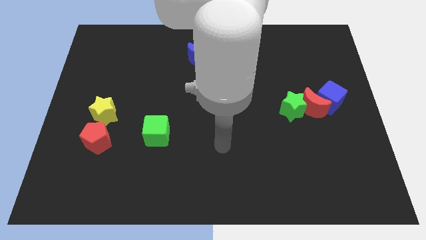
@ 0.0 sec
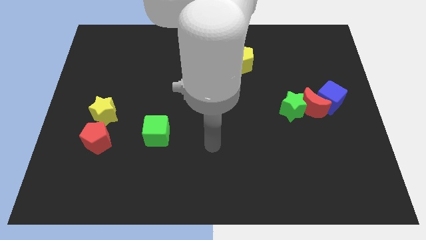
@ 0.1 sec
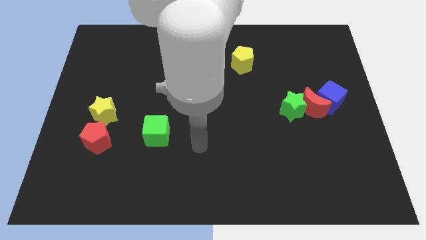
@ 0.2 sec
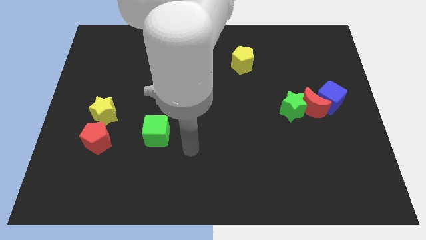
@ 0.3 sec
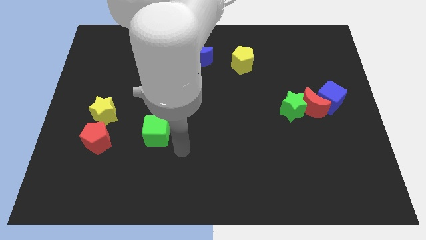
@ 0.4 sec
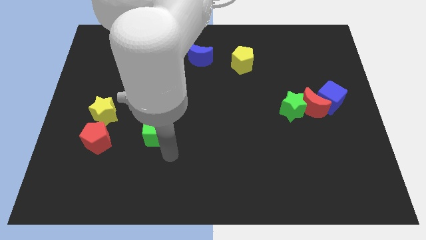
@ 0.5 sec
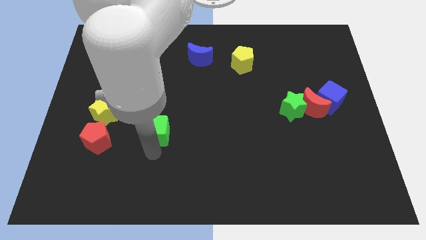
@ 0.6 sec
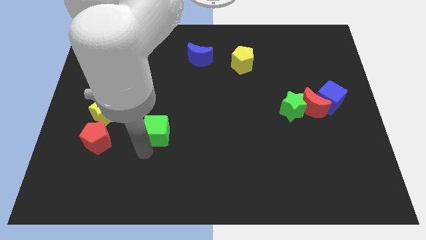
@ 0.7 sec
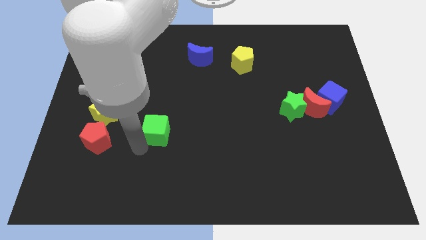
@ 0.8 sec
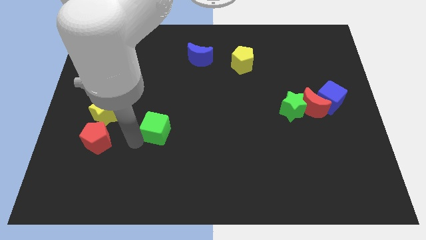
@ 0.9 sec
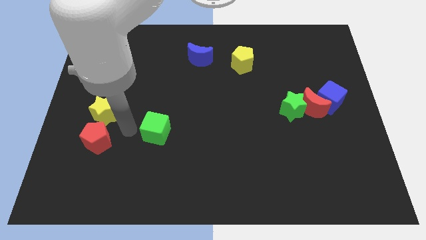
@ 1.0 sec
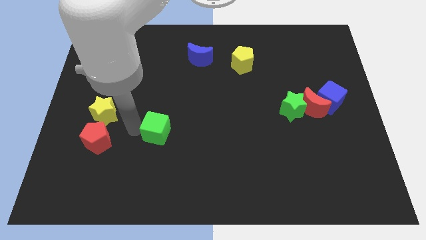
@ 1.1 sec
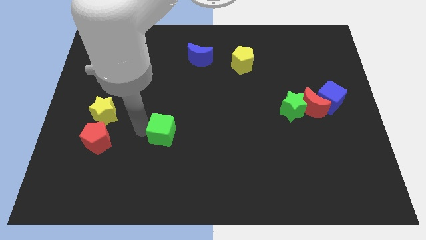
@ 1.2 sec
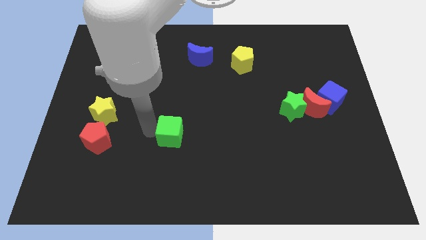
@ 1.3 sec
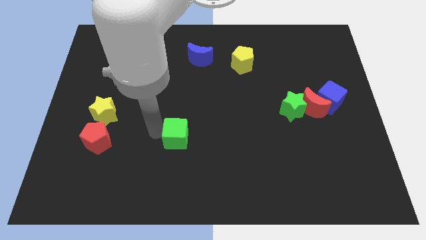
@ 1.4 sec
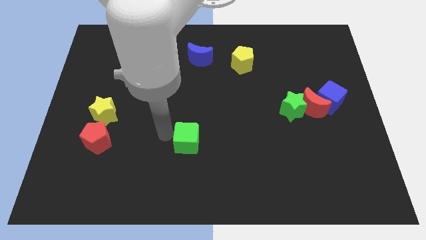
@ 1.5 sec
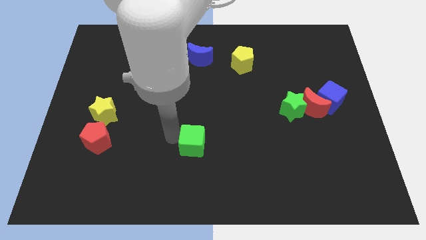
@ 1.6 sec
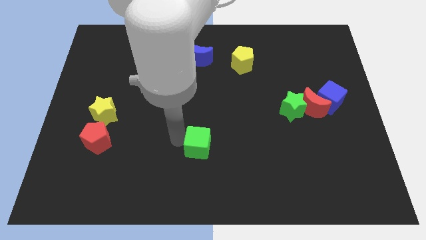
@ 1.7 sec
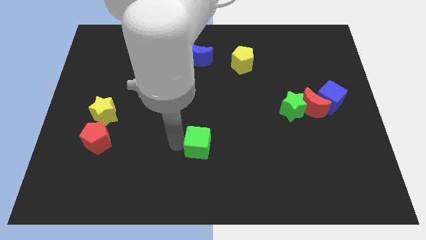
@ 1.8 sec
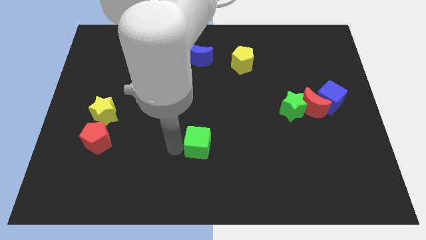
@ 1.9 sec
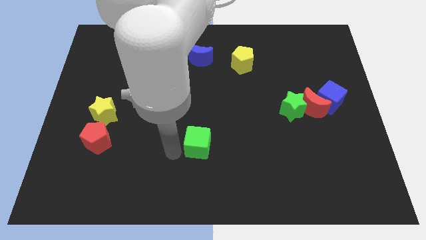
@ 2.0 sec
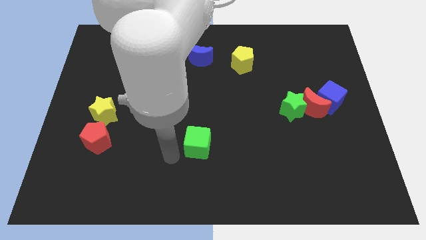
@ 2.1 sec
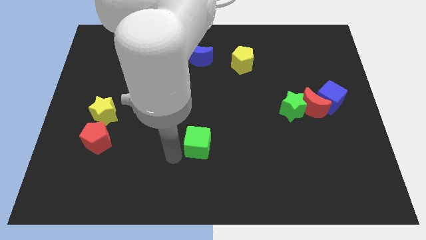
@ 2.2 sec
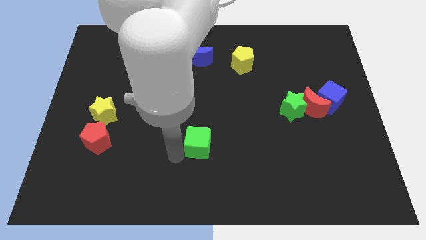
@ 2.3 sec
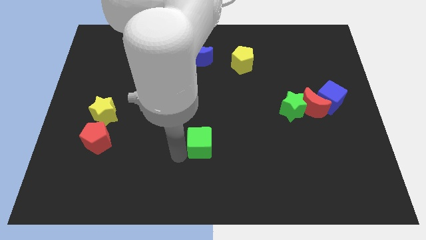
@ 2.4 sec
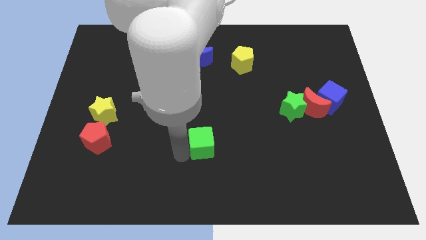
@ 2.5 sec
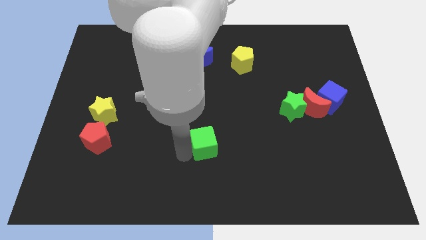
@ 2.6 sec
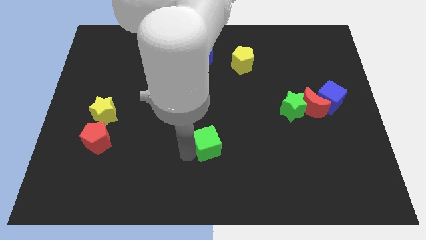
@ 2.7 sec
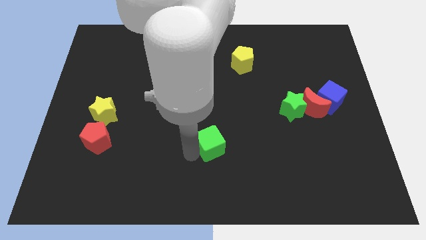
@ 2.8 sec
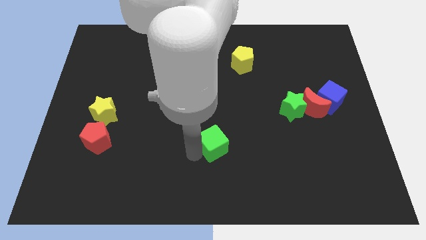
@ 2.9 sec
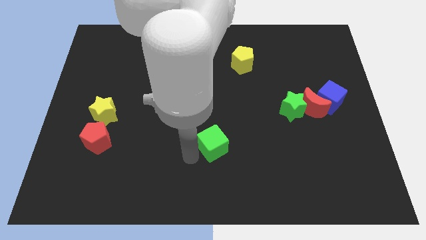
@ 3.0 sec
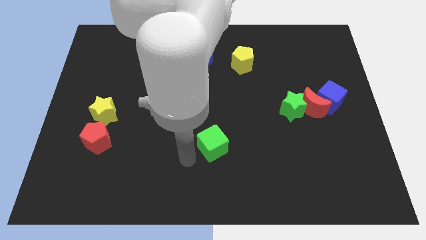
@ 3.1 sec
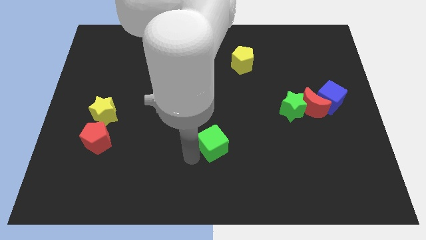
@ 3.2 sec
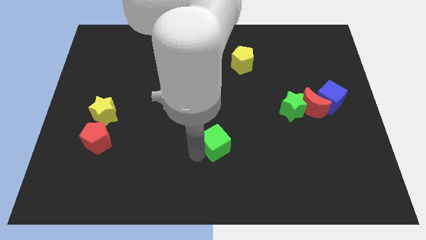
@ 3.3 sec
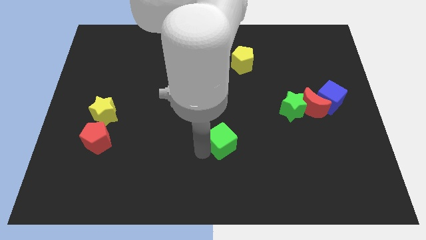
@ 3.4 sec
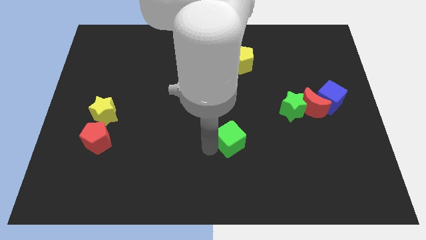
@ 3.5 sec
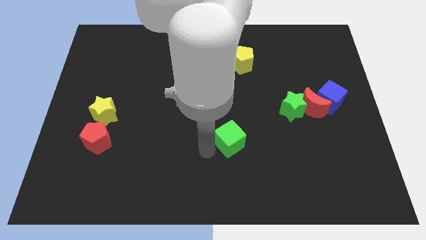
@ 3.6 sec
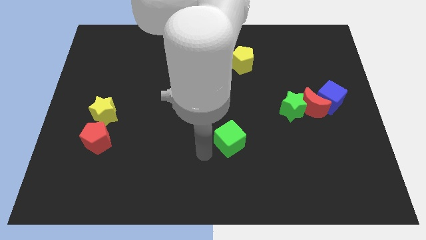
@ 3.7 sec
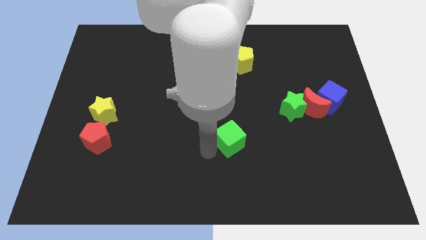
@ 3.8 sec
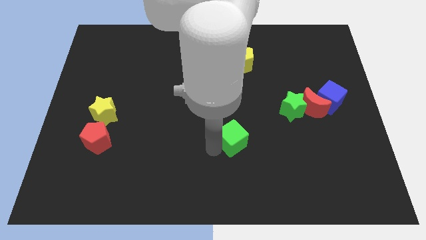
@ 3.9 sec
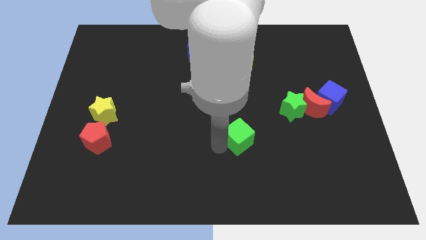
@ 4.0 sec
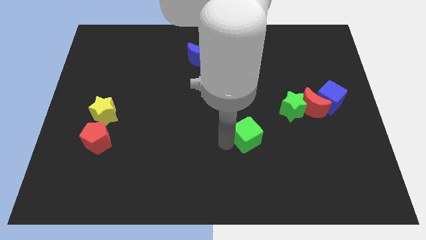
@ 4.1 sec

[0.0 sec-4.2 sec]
move the green cube to the right

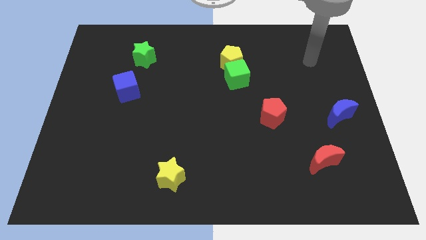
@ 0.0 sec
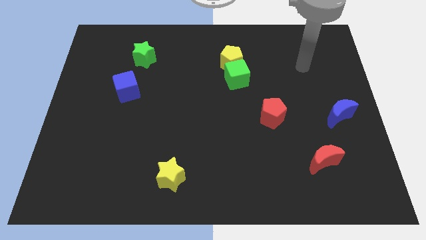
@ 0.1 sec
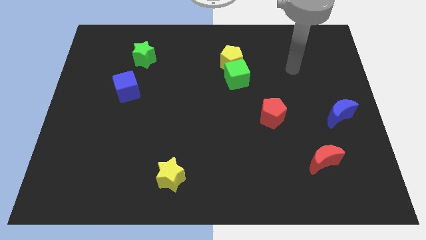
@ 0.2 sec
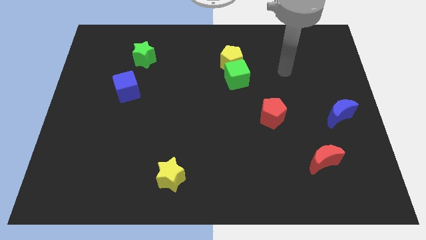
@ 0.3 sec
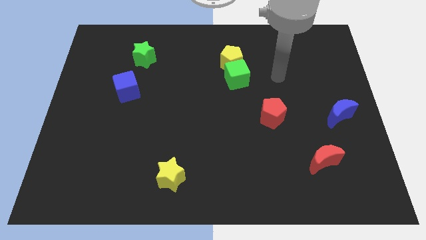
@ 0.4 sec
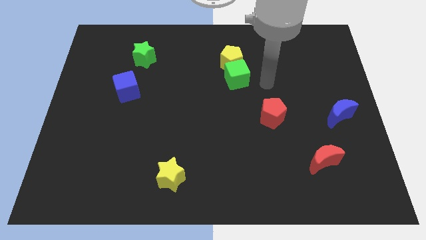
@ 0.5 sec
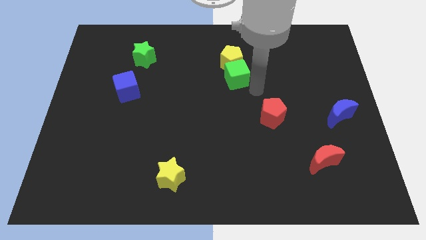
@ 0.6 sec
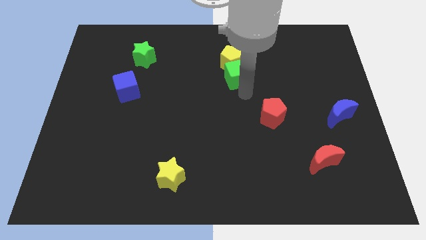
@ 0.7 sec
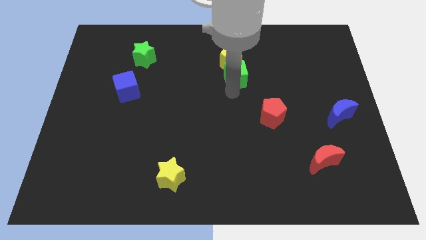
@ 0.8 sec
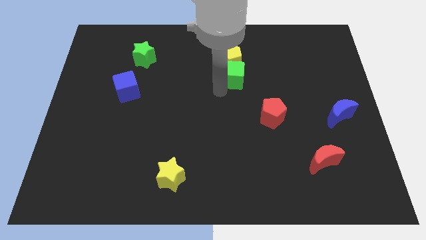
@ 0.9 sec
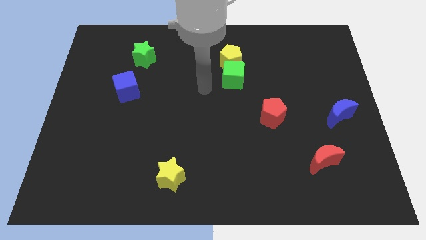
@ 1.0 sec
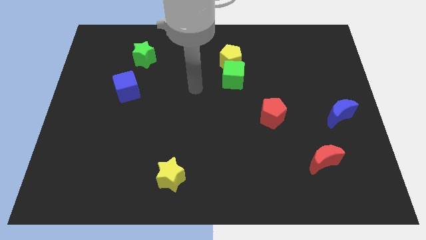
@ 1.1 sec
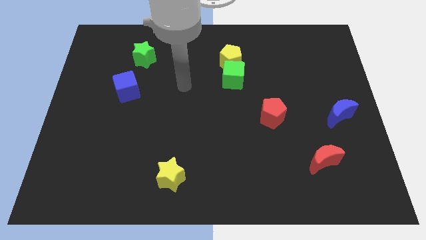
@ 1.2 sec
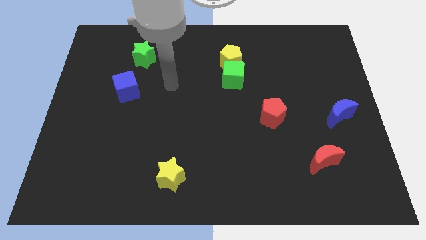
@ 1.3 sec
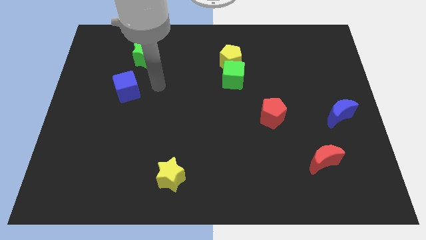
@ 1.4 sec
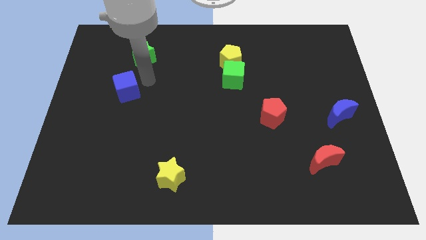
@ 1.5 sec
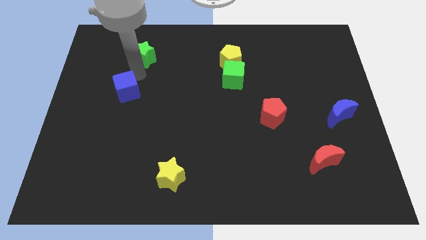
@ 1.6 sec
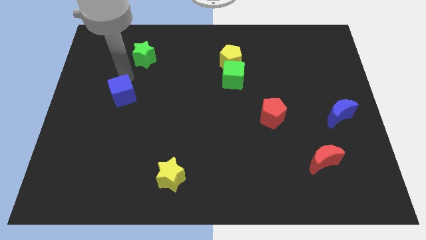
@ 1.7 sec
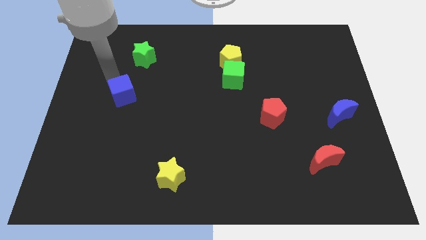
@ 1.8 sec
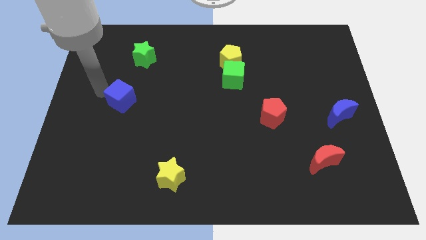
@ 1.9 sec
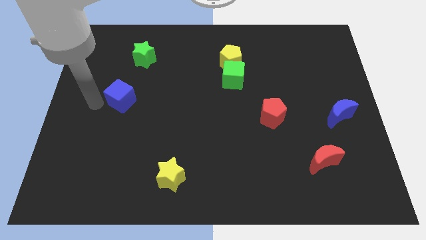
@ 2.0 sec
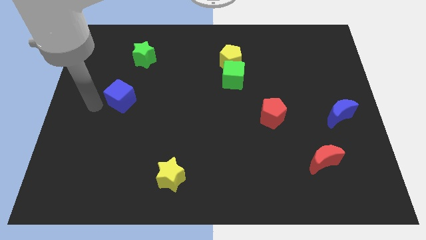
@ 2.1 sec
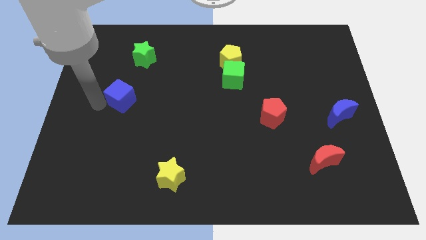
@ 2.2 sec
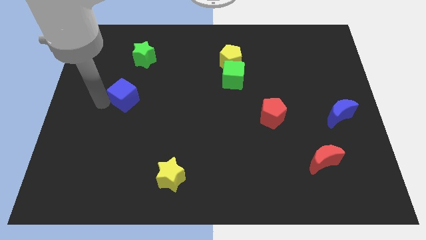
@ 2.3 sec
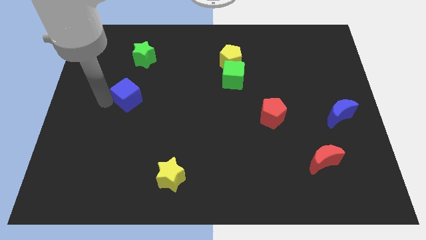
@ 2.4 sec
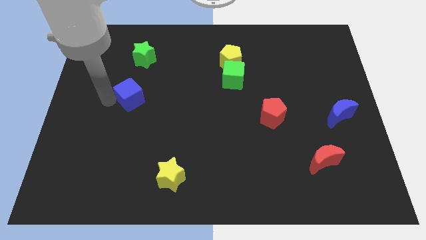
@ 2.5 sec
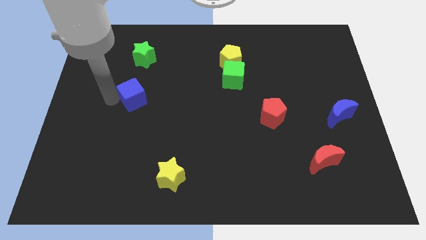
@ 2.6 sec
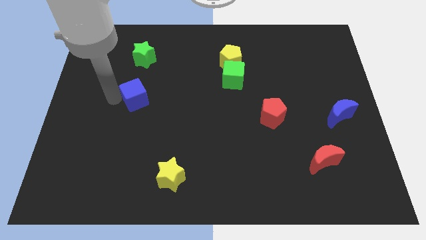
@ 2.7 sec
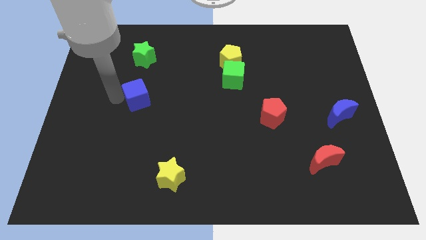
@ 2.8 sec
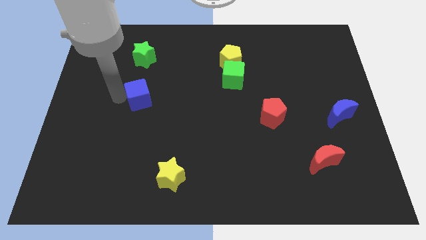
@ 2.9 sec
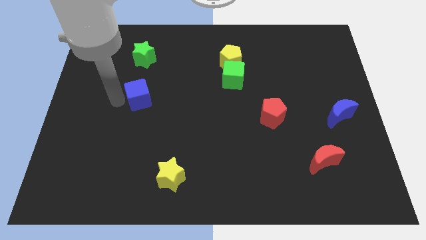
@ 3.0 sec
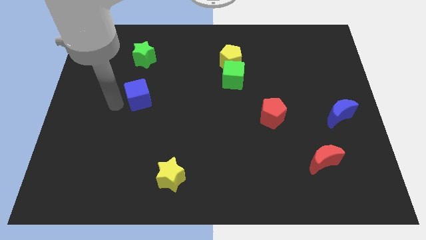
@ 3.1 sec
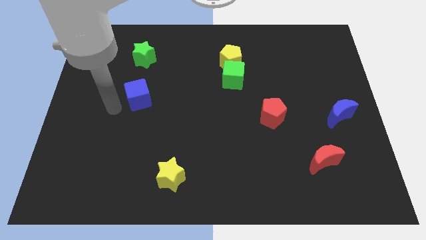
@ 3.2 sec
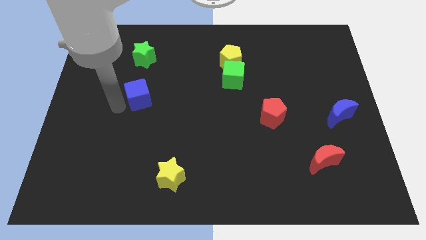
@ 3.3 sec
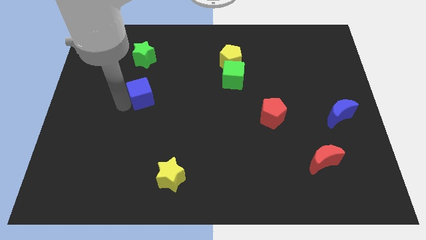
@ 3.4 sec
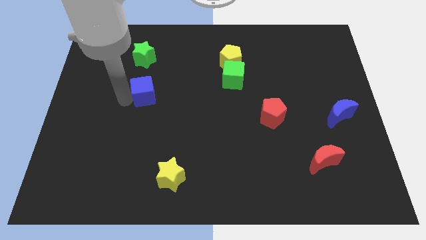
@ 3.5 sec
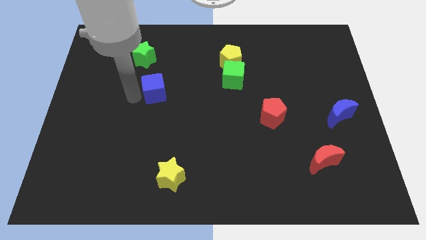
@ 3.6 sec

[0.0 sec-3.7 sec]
push the blue cube a bit to the right
